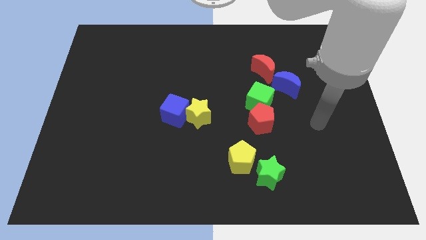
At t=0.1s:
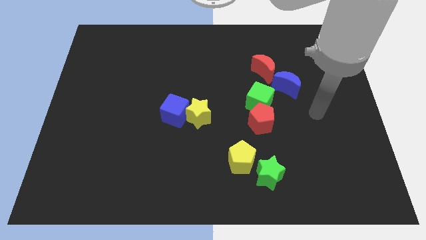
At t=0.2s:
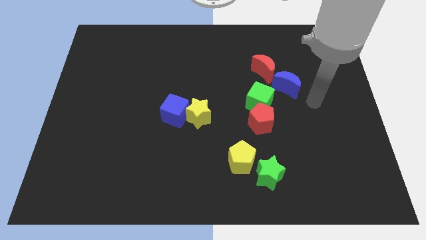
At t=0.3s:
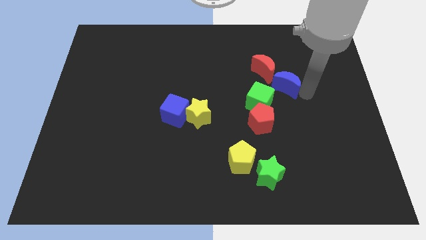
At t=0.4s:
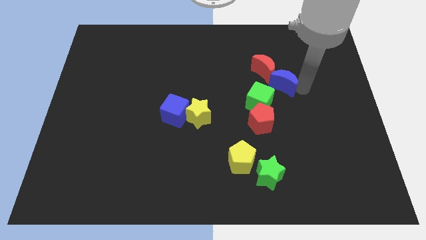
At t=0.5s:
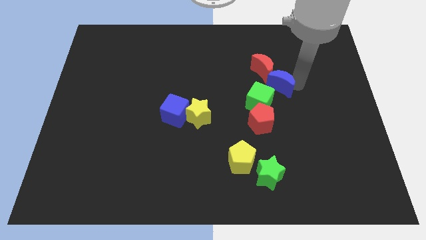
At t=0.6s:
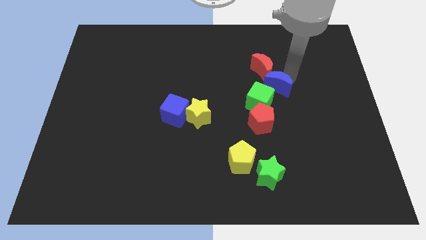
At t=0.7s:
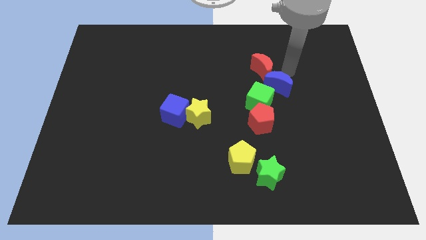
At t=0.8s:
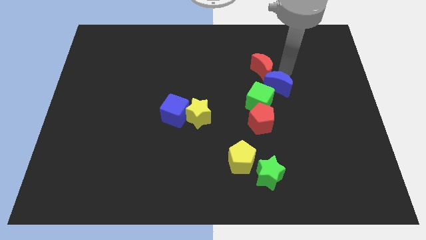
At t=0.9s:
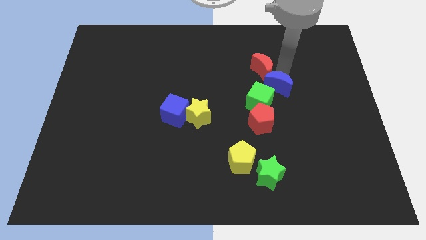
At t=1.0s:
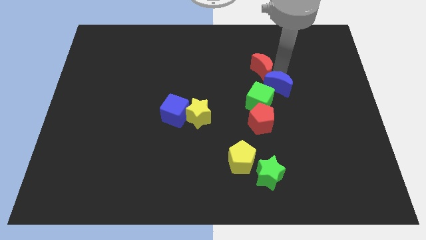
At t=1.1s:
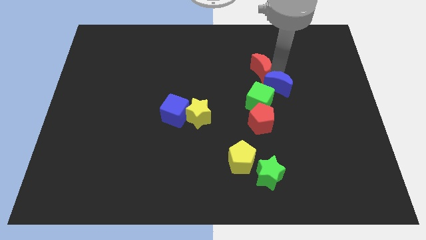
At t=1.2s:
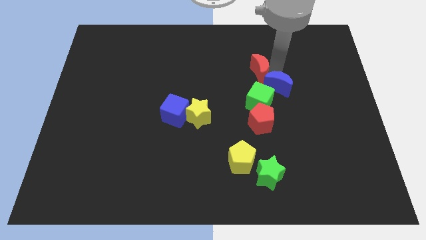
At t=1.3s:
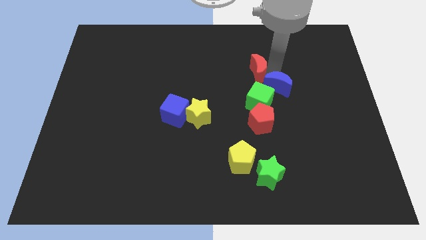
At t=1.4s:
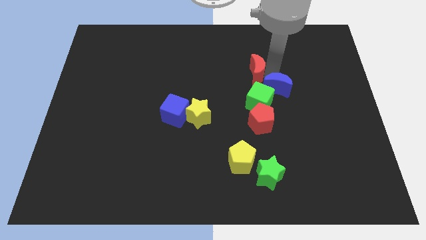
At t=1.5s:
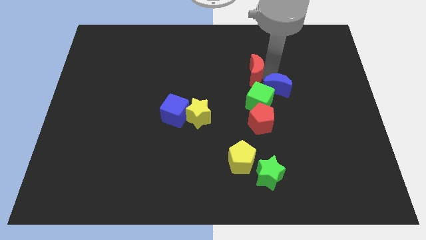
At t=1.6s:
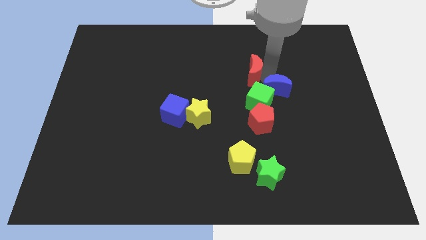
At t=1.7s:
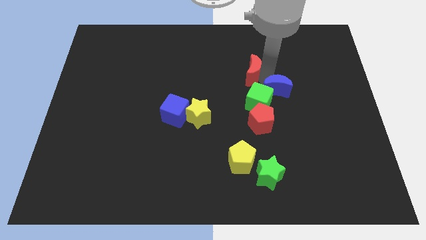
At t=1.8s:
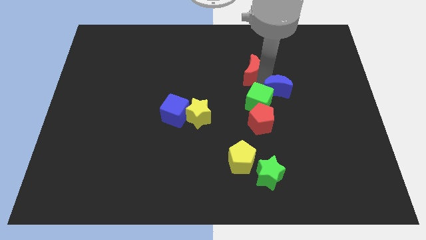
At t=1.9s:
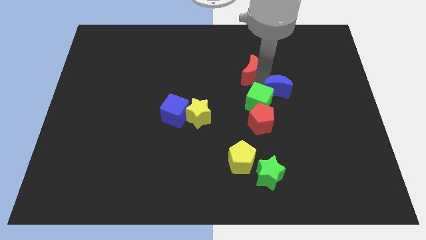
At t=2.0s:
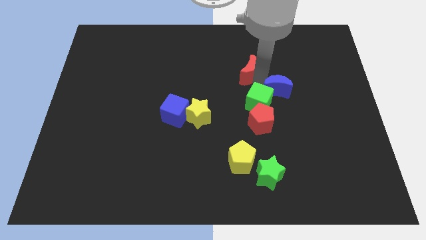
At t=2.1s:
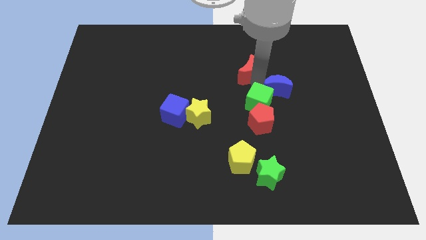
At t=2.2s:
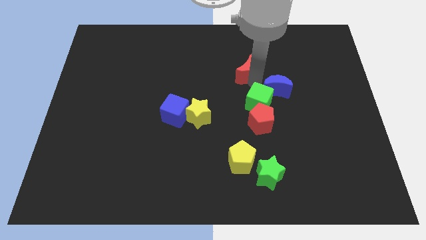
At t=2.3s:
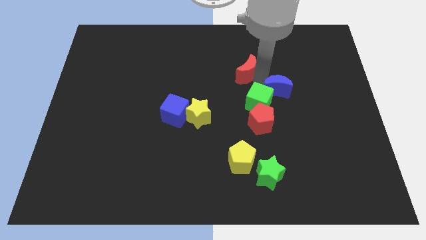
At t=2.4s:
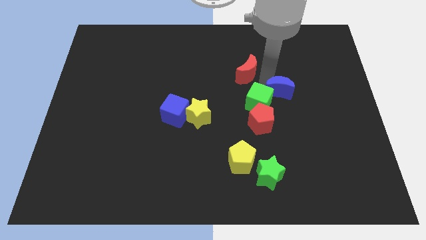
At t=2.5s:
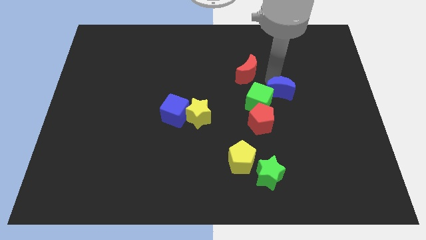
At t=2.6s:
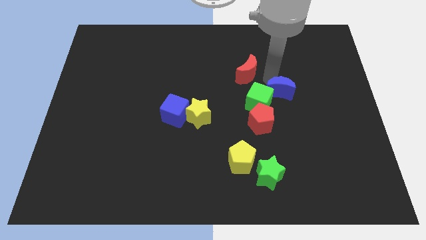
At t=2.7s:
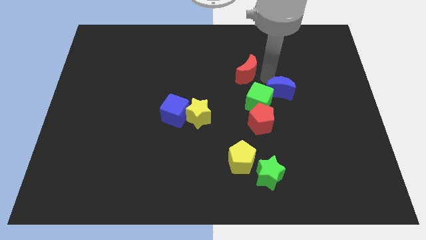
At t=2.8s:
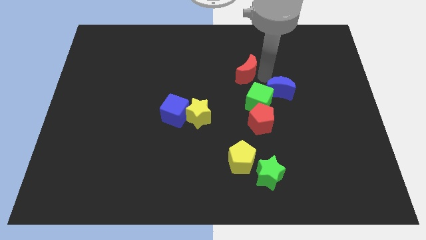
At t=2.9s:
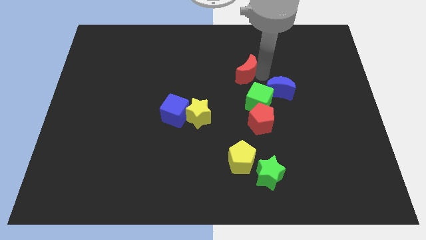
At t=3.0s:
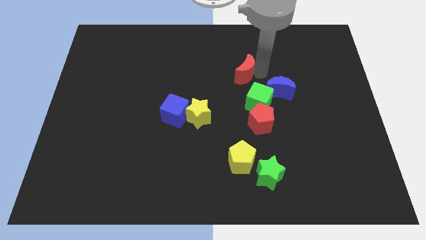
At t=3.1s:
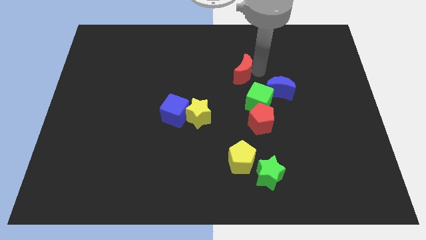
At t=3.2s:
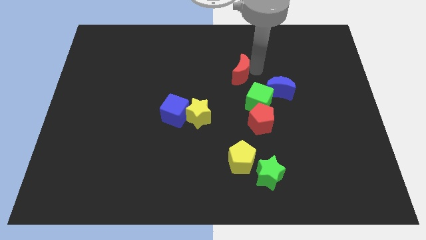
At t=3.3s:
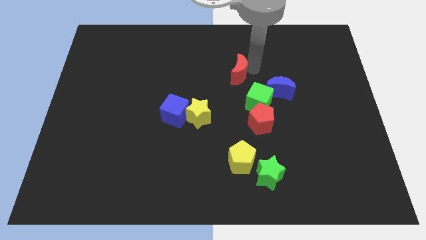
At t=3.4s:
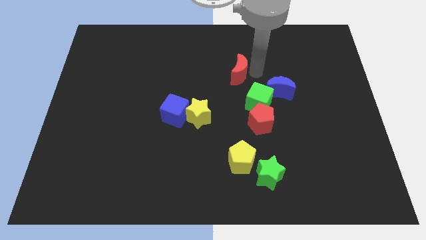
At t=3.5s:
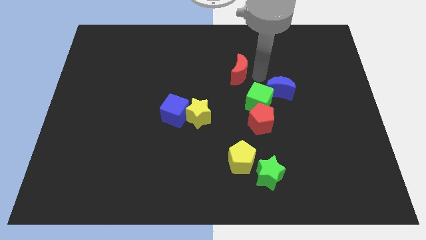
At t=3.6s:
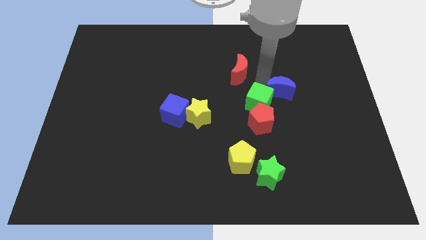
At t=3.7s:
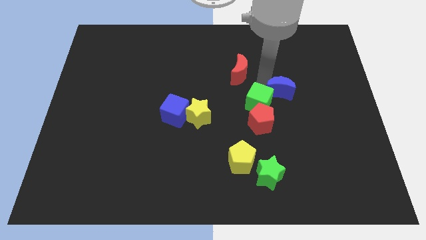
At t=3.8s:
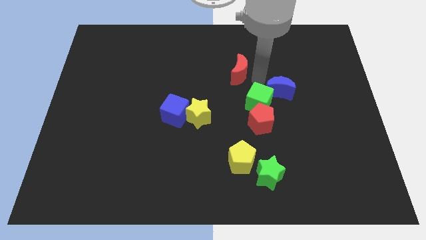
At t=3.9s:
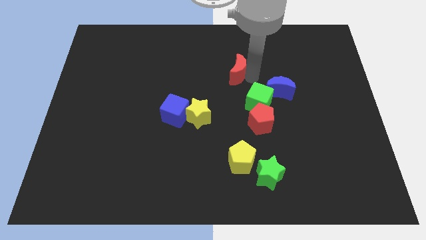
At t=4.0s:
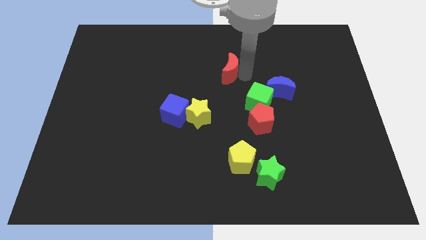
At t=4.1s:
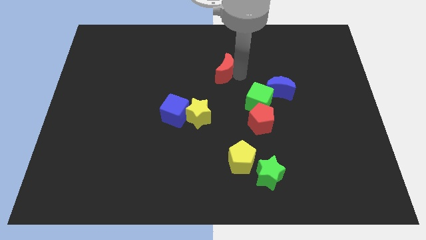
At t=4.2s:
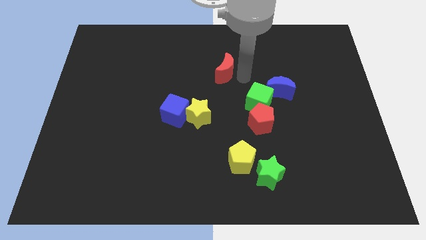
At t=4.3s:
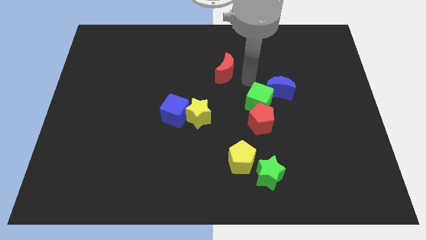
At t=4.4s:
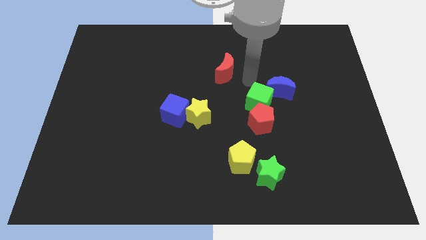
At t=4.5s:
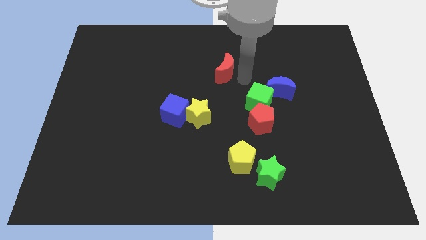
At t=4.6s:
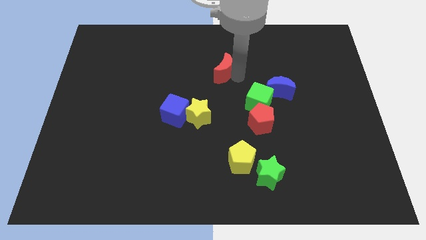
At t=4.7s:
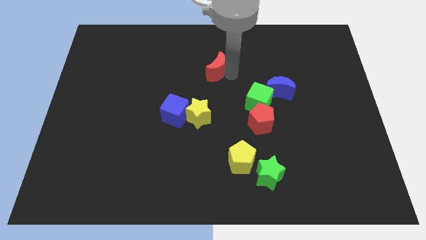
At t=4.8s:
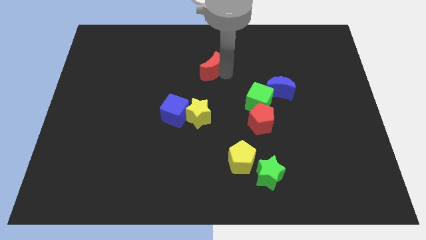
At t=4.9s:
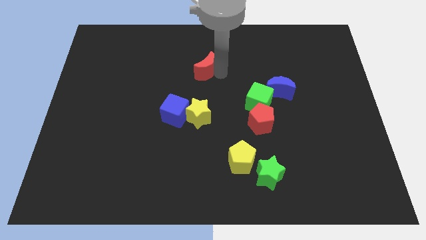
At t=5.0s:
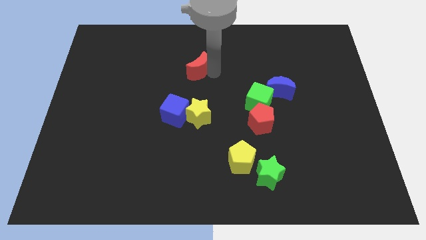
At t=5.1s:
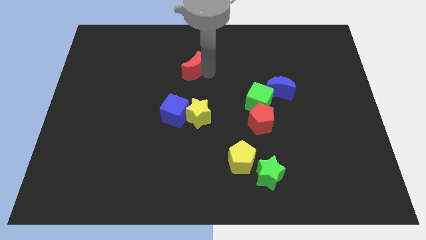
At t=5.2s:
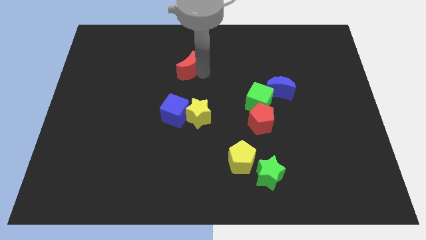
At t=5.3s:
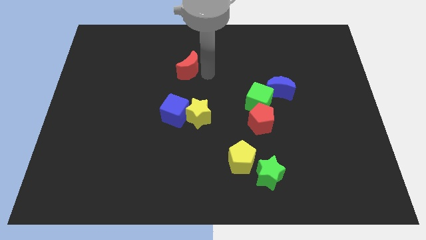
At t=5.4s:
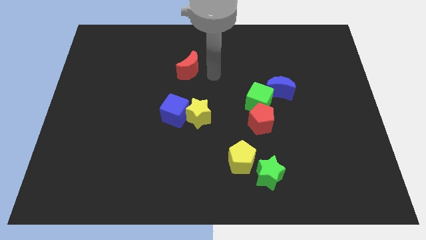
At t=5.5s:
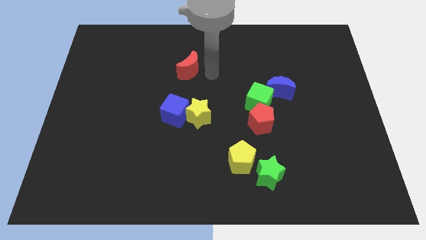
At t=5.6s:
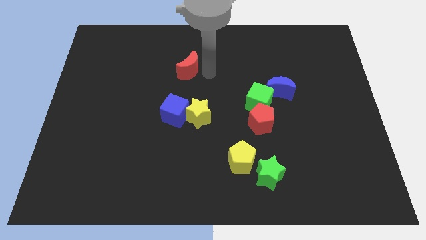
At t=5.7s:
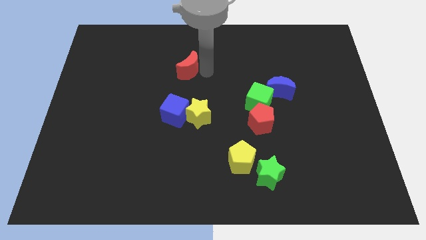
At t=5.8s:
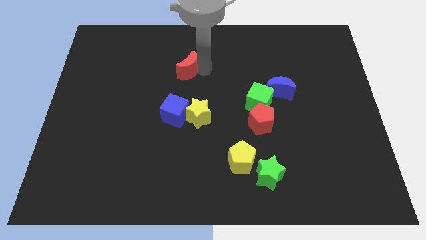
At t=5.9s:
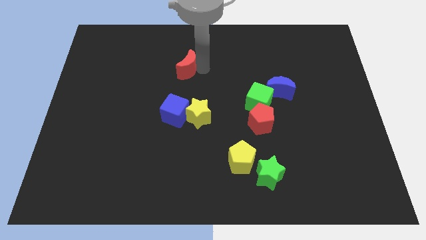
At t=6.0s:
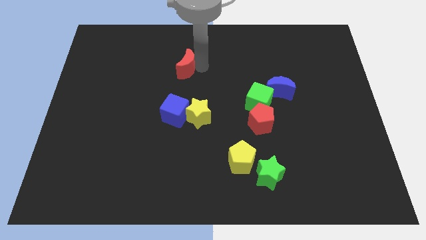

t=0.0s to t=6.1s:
move the red moon left

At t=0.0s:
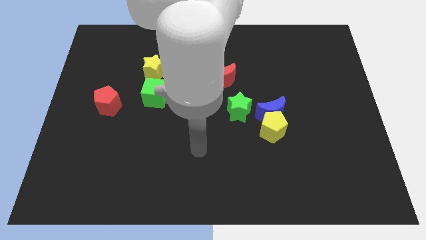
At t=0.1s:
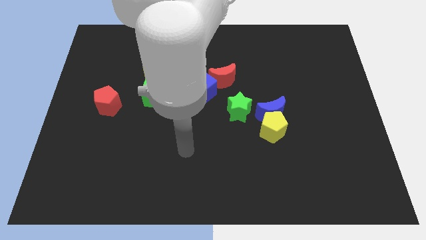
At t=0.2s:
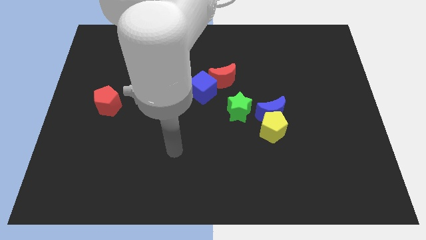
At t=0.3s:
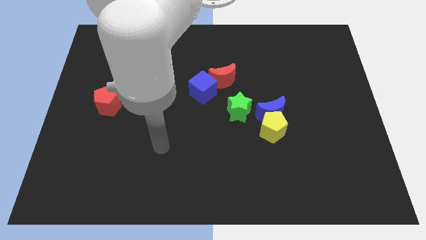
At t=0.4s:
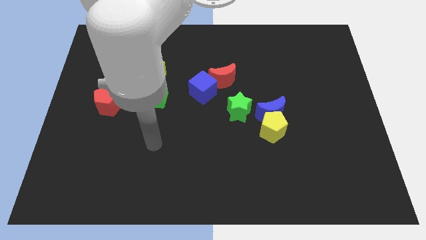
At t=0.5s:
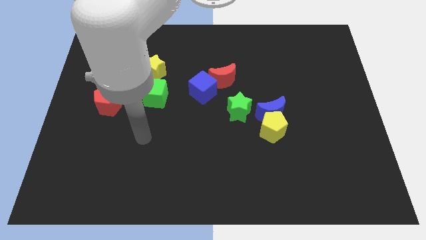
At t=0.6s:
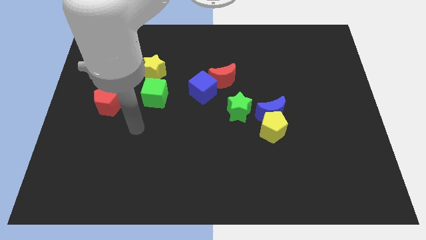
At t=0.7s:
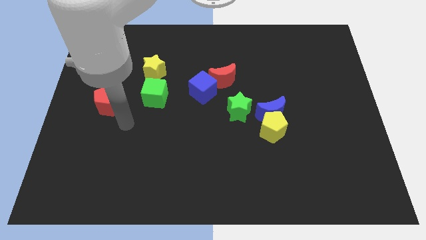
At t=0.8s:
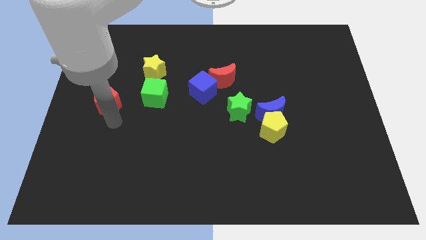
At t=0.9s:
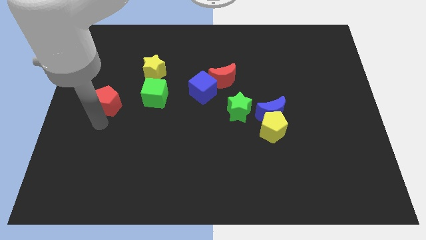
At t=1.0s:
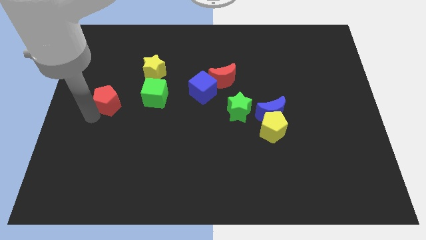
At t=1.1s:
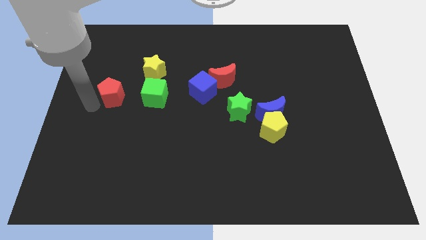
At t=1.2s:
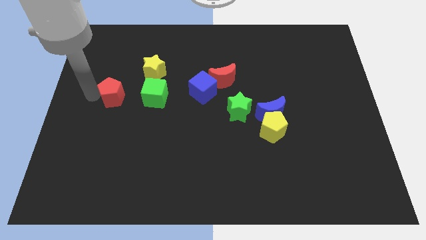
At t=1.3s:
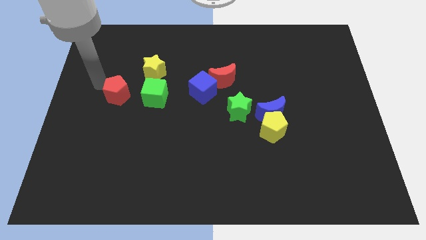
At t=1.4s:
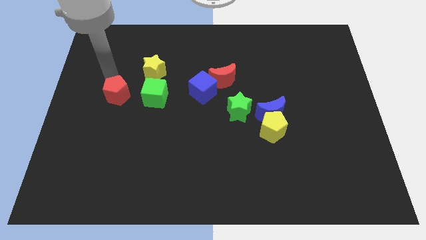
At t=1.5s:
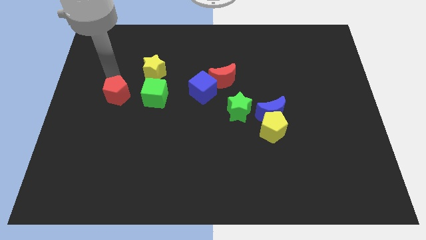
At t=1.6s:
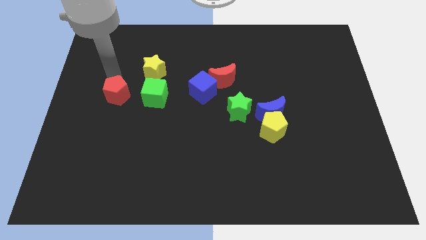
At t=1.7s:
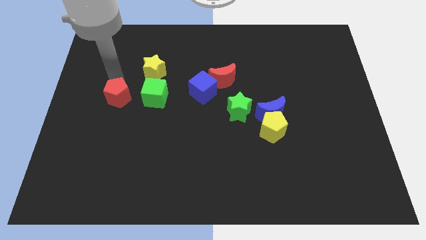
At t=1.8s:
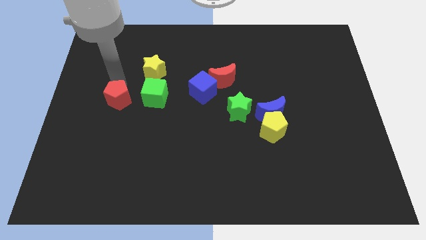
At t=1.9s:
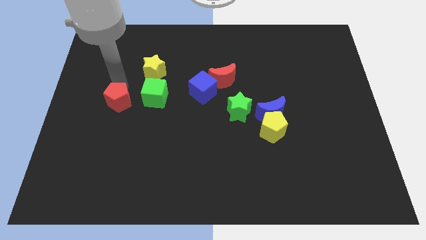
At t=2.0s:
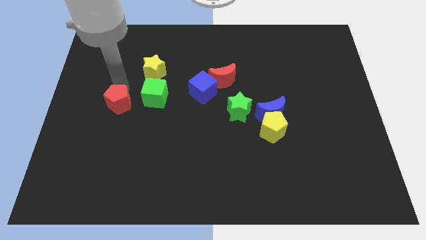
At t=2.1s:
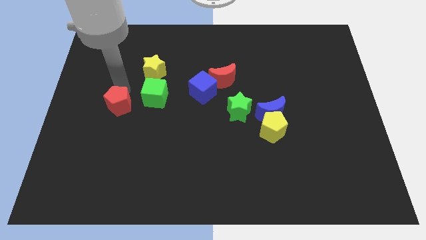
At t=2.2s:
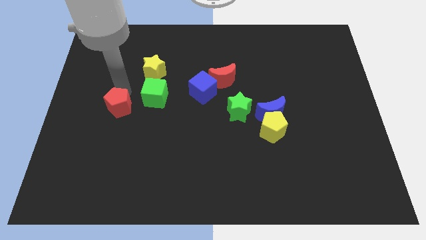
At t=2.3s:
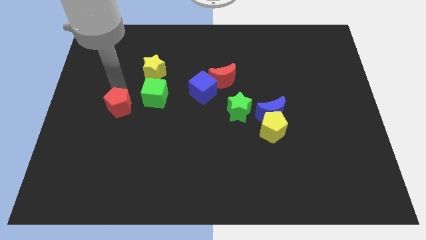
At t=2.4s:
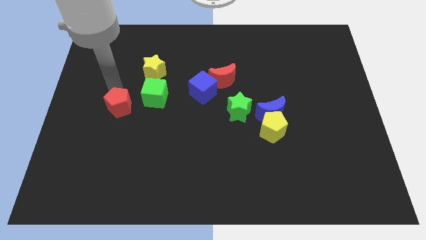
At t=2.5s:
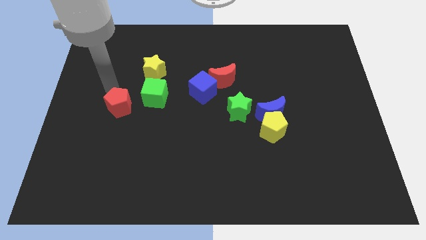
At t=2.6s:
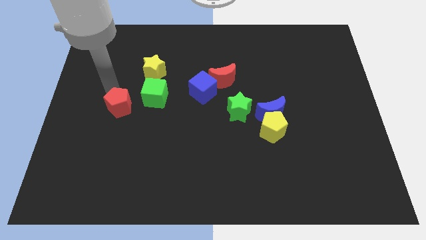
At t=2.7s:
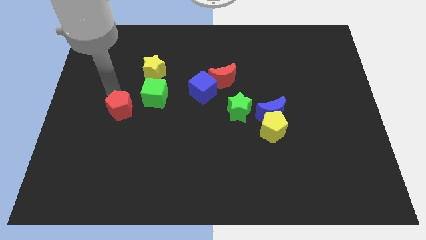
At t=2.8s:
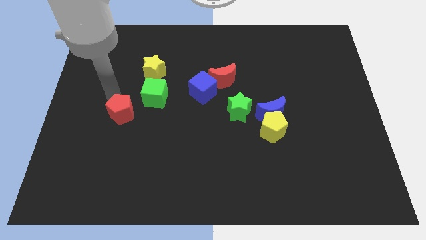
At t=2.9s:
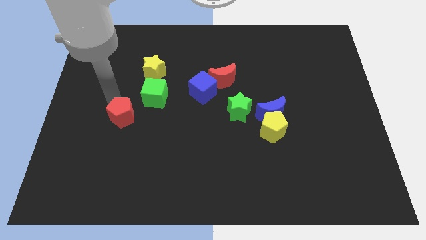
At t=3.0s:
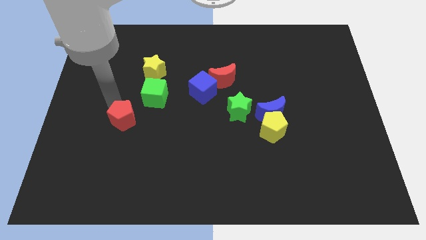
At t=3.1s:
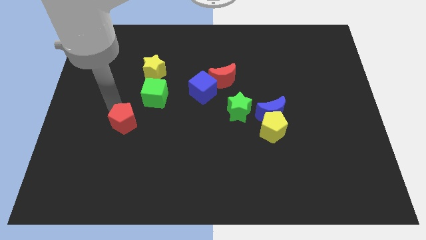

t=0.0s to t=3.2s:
move the red pentagon downwards and to the right slightly
